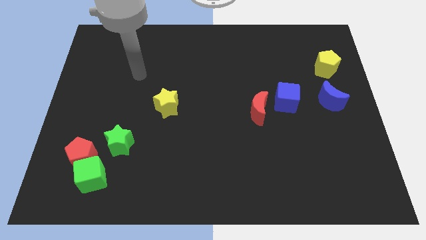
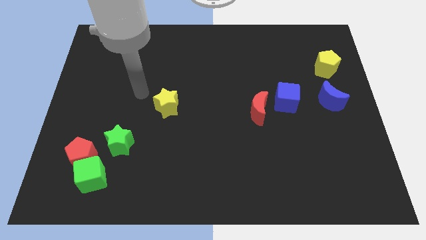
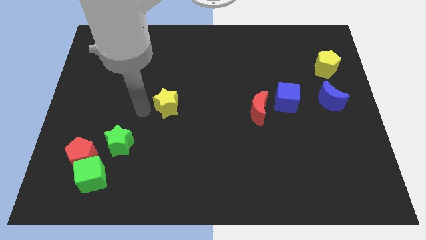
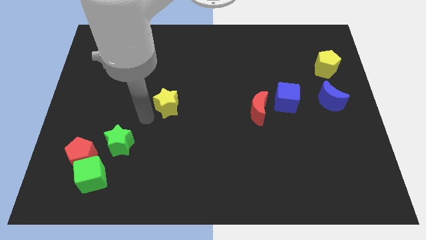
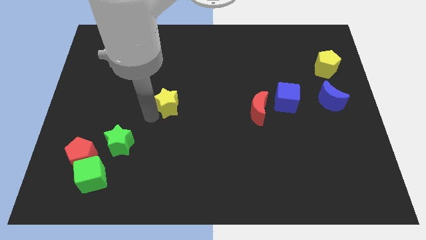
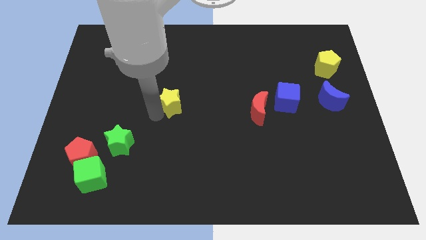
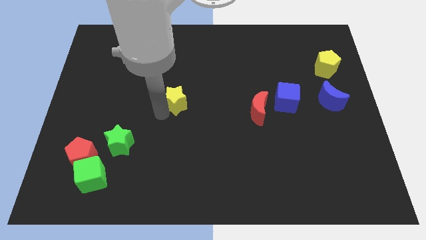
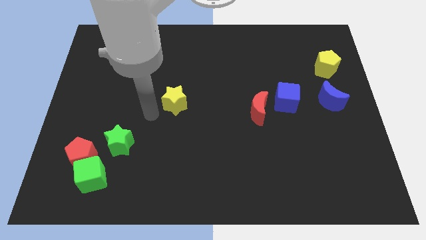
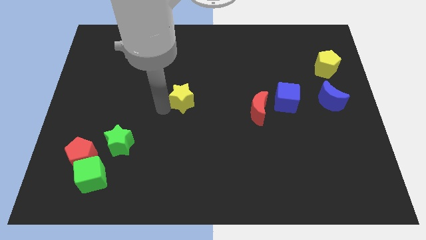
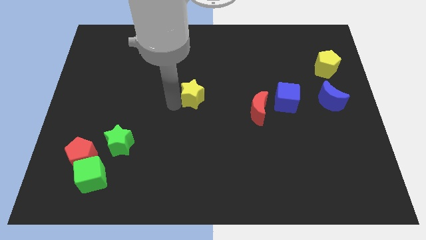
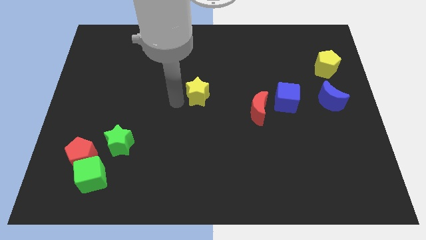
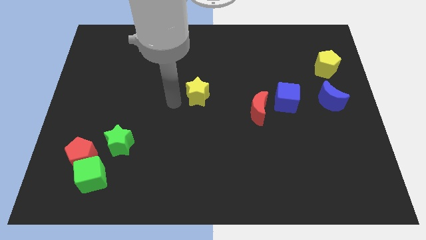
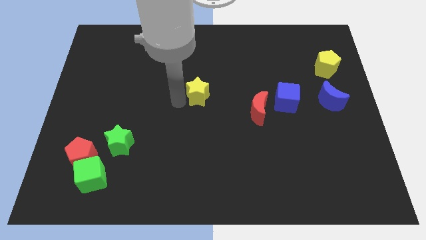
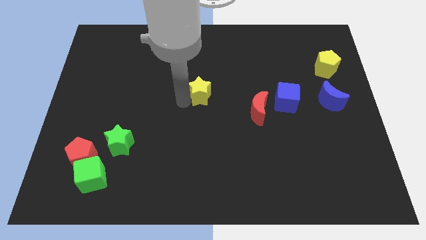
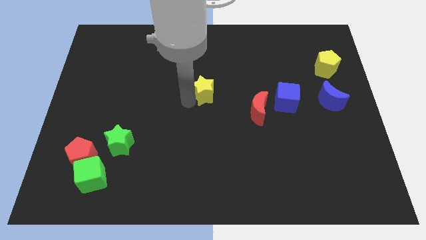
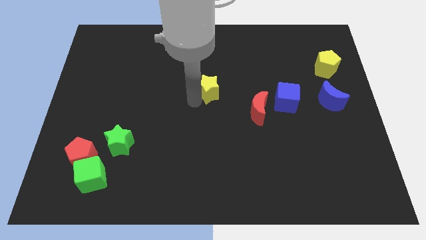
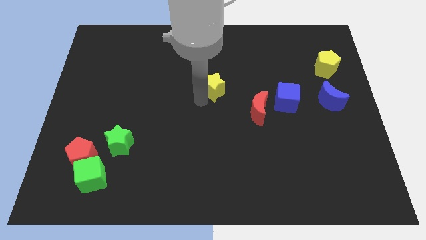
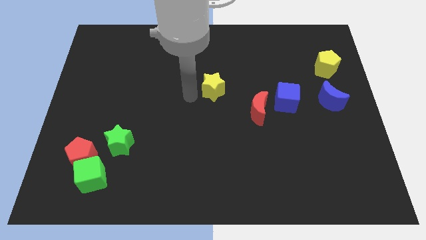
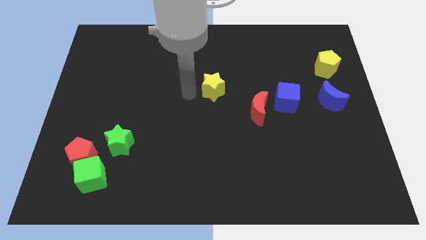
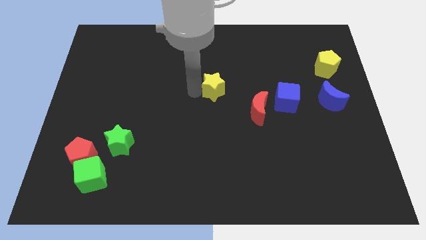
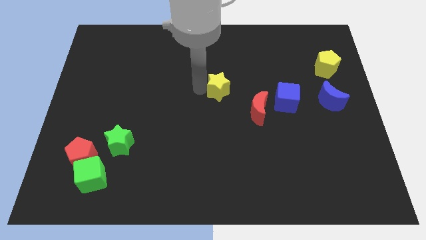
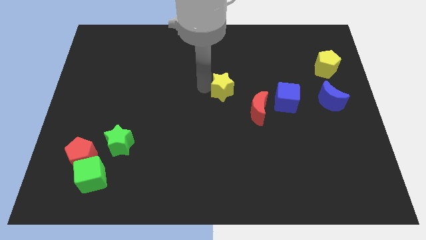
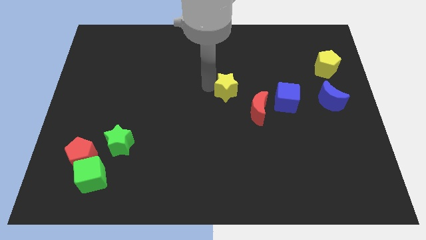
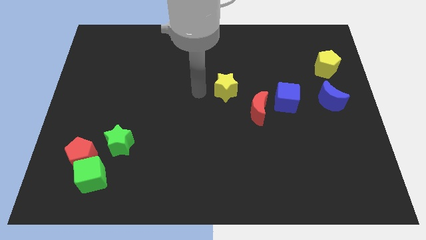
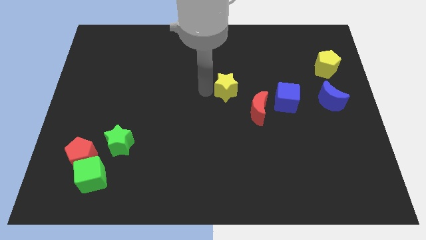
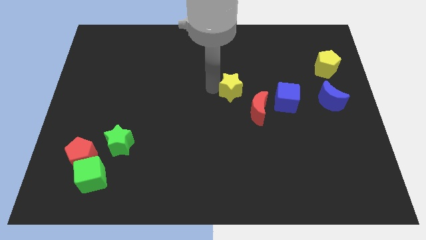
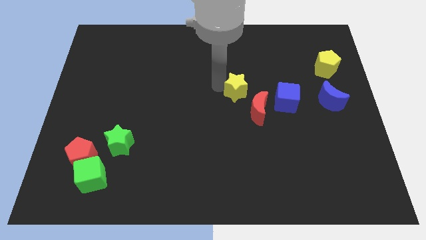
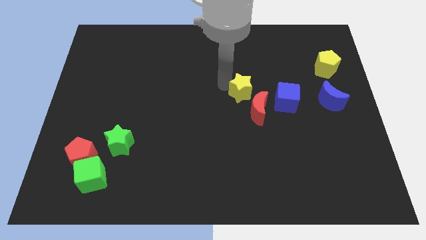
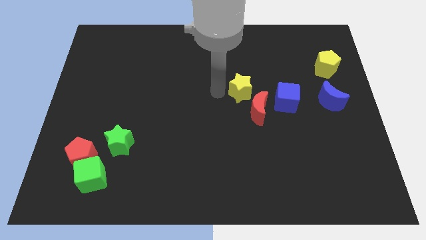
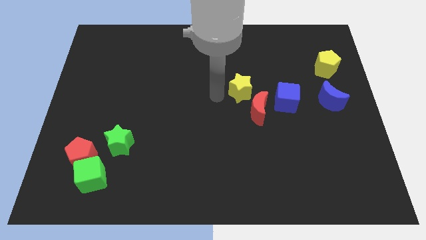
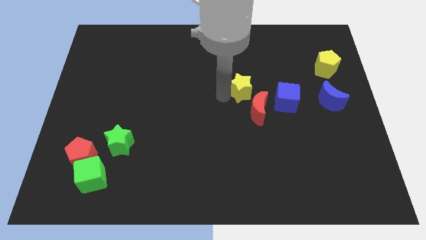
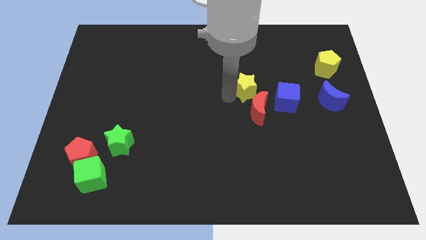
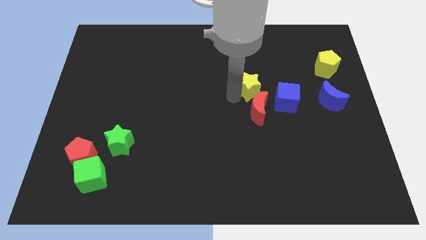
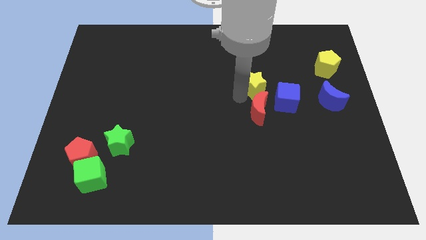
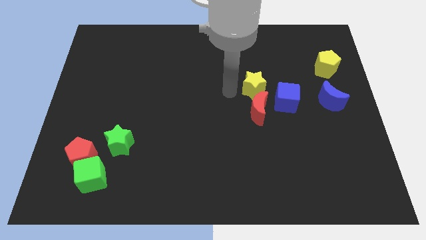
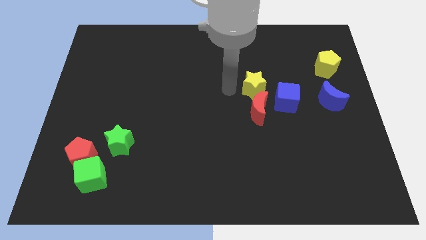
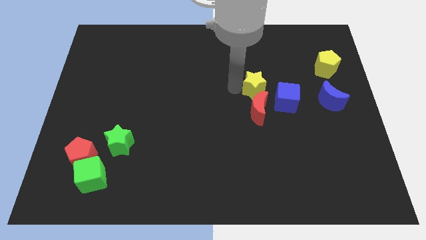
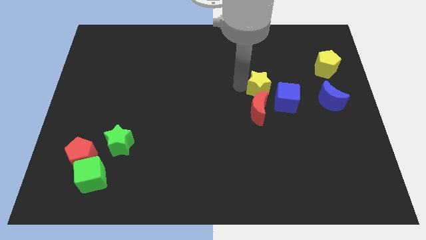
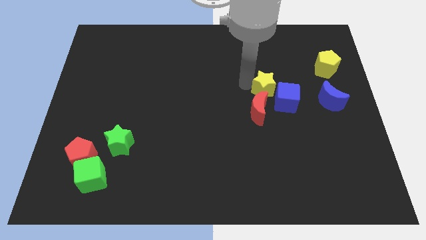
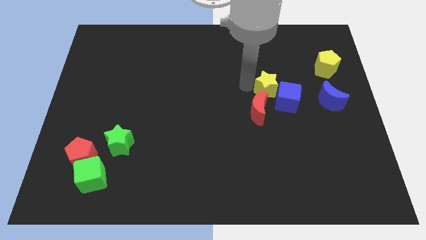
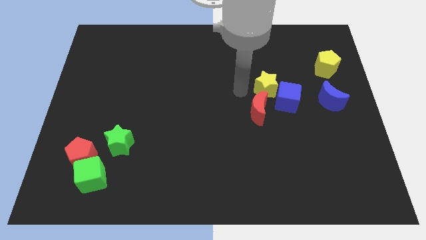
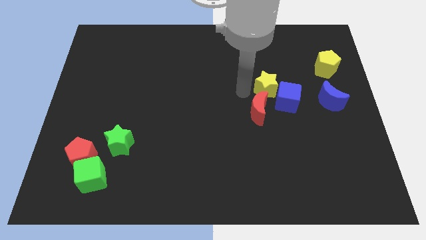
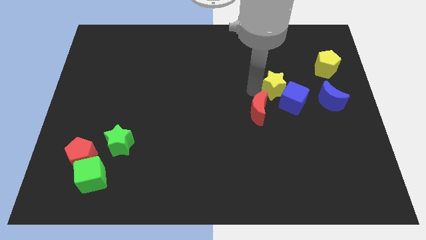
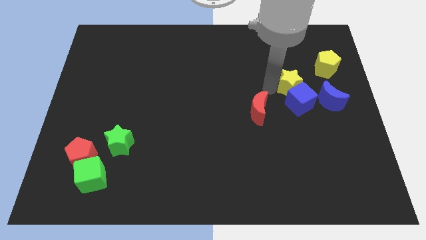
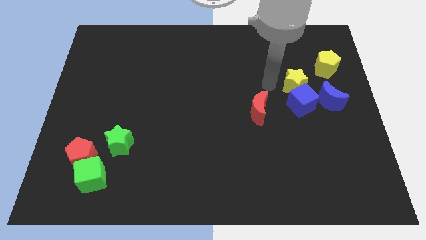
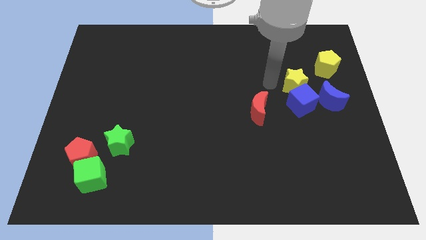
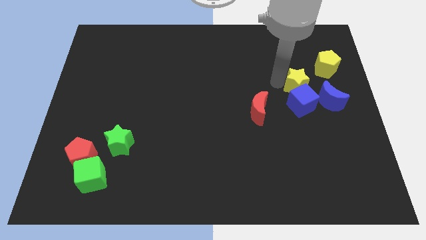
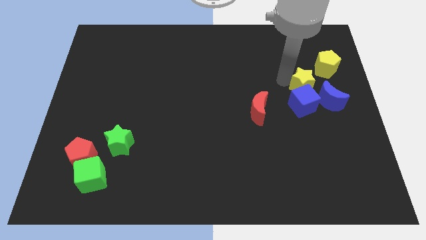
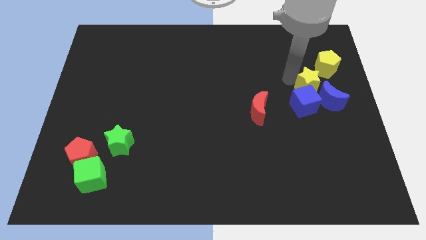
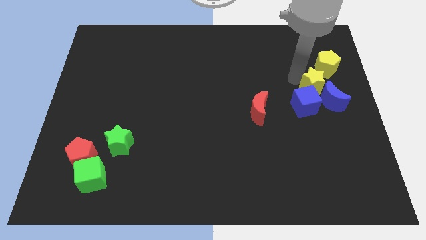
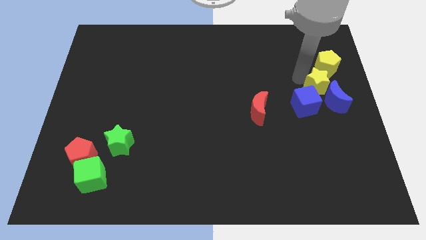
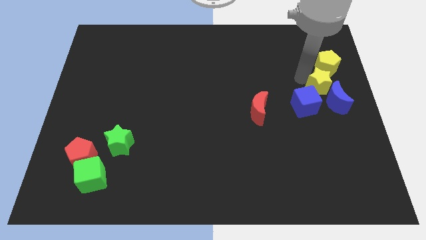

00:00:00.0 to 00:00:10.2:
put the yellow star to the center right

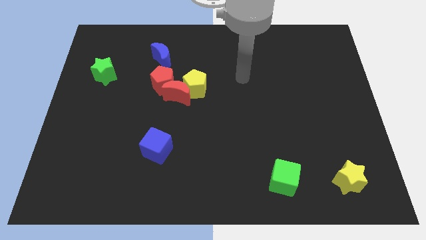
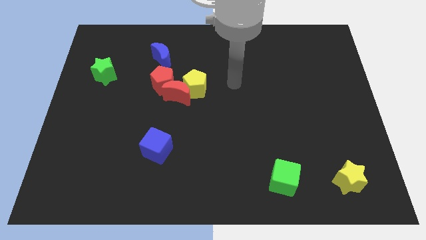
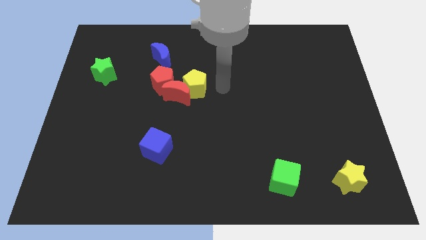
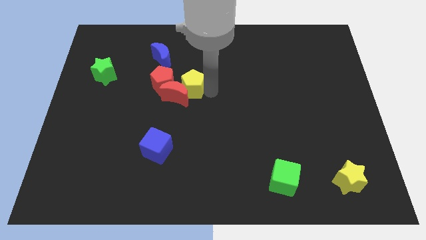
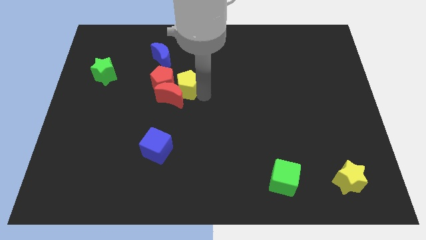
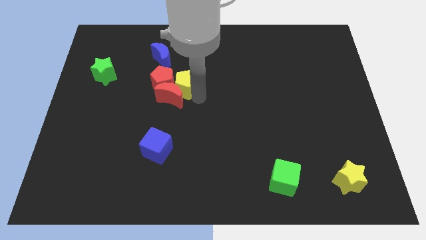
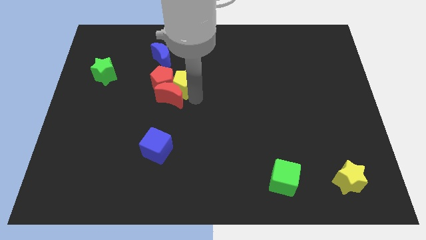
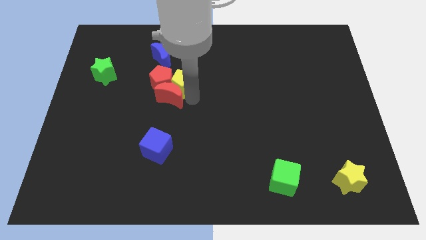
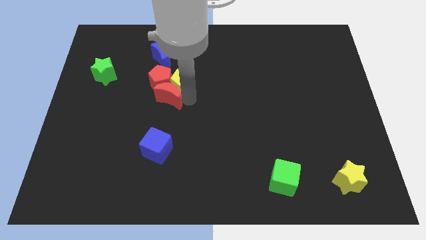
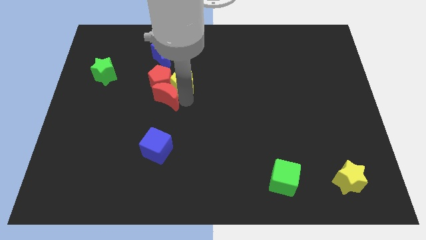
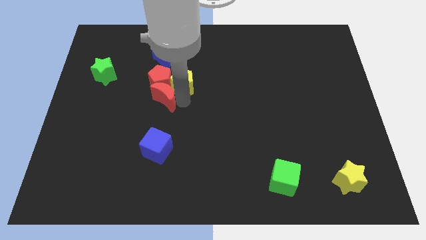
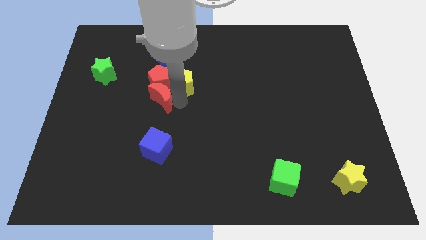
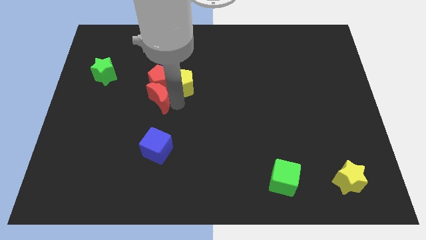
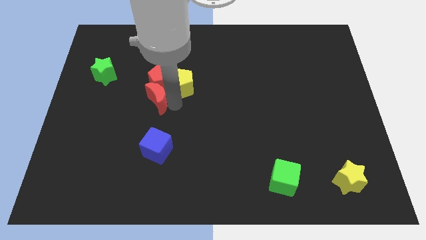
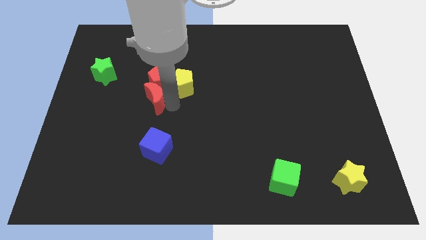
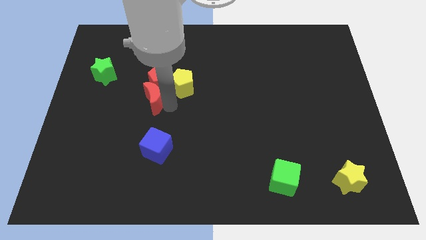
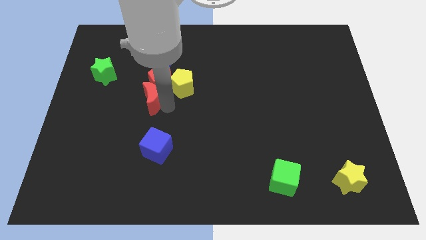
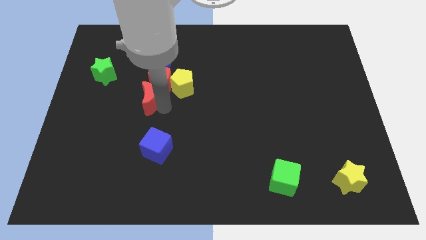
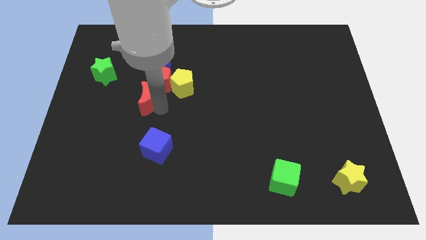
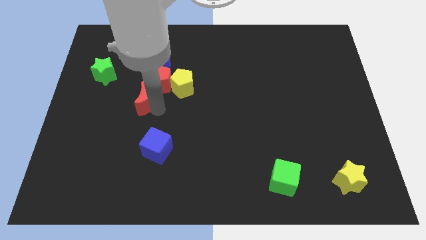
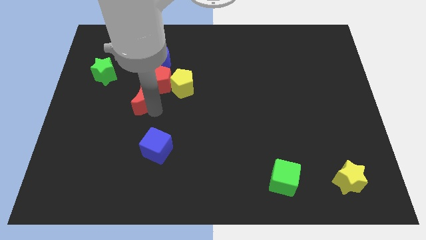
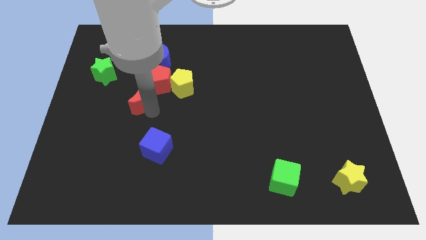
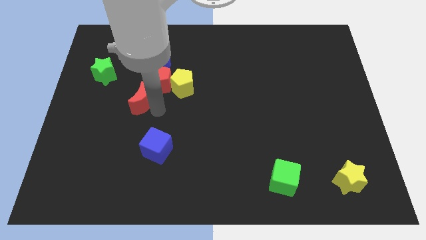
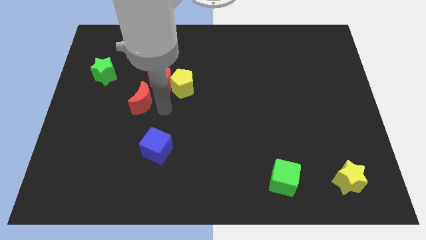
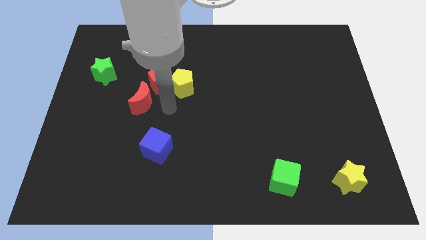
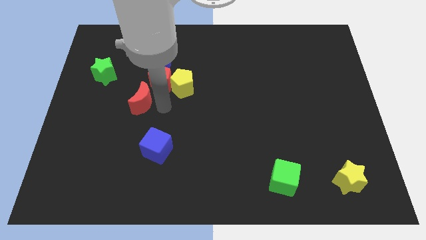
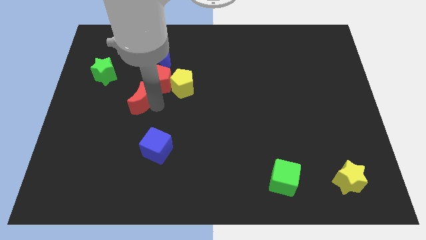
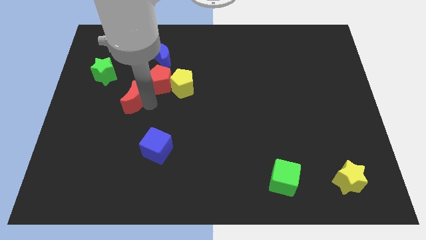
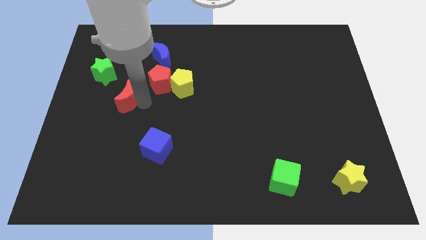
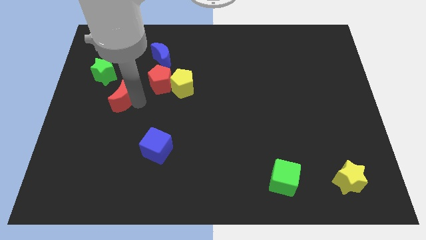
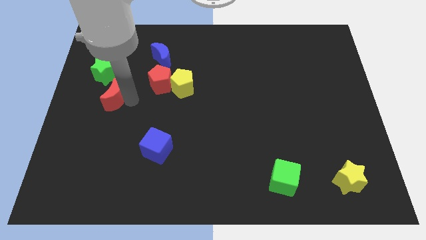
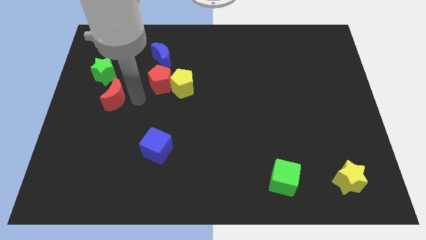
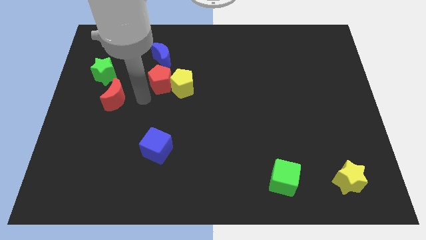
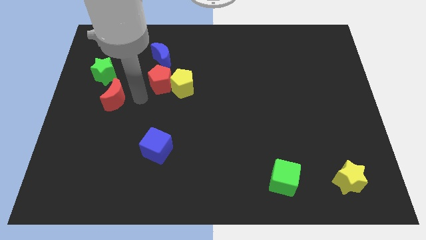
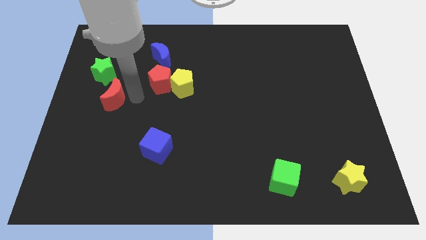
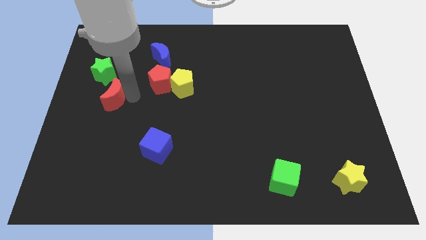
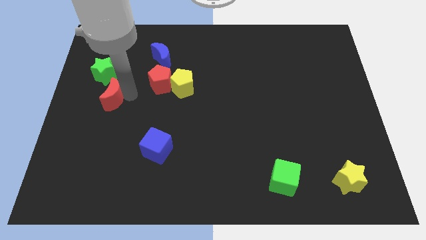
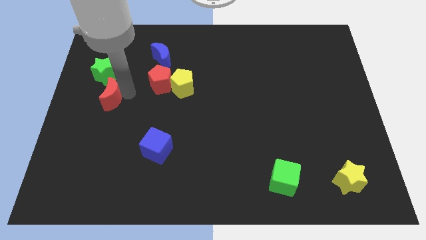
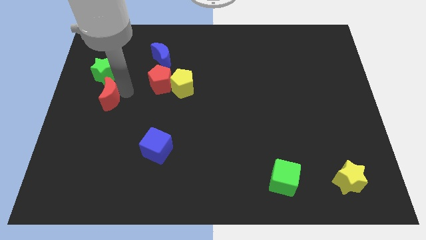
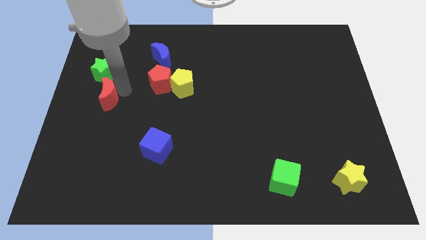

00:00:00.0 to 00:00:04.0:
move the red moon to the center left
